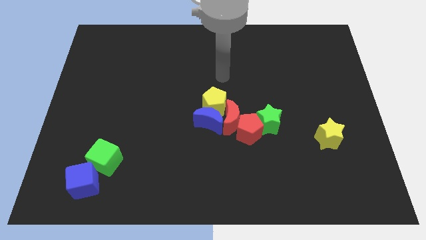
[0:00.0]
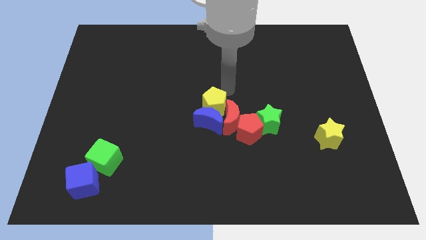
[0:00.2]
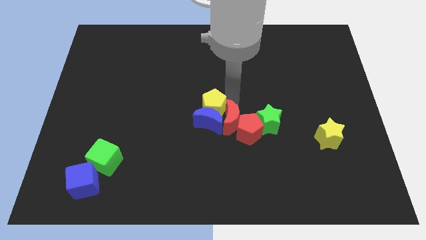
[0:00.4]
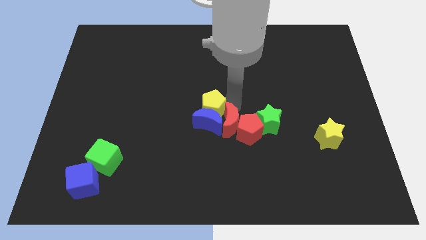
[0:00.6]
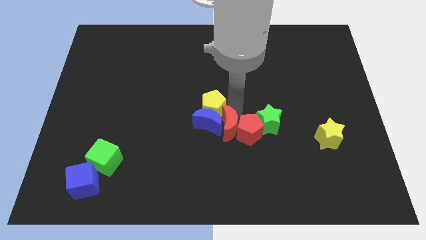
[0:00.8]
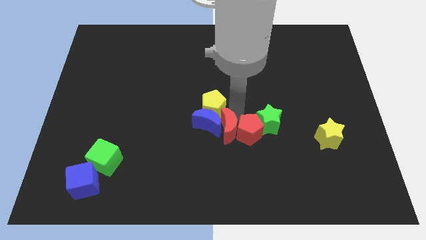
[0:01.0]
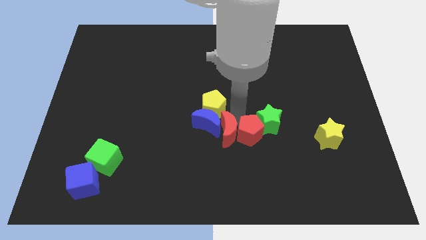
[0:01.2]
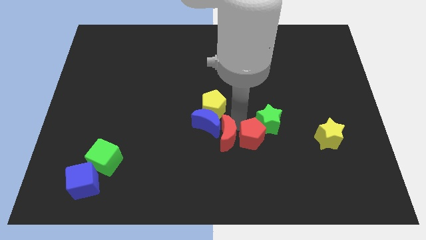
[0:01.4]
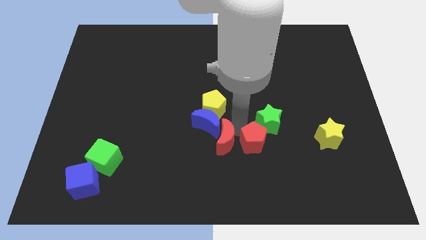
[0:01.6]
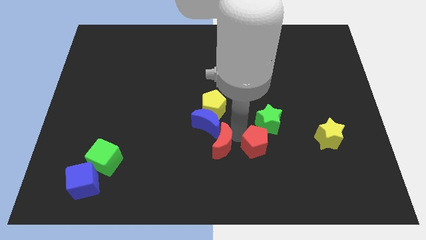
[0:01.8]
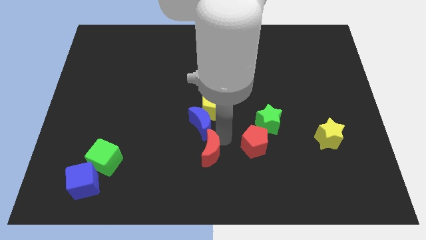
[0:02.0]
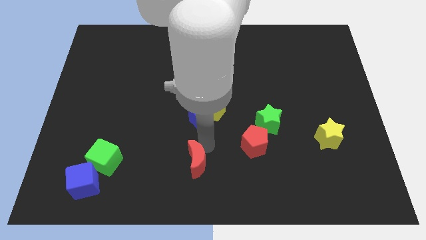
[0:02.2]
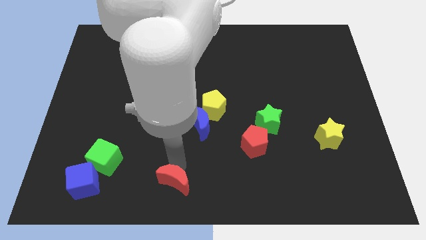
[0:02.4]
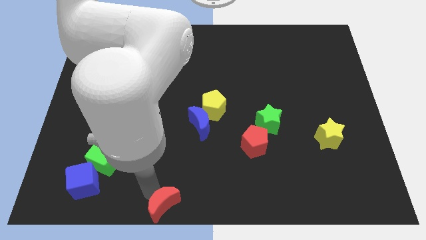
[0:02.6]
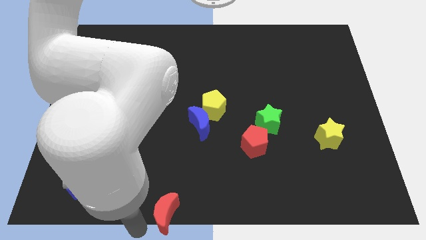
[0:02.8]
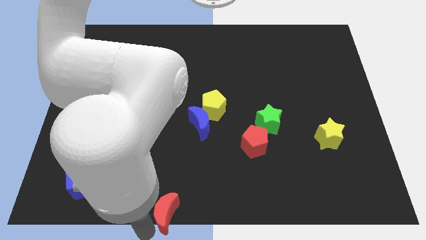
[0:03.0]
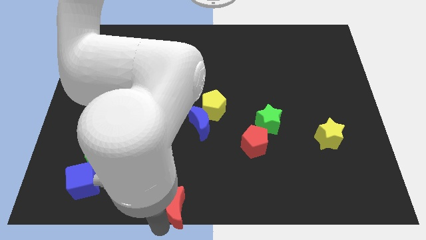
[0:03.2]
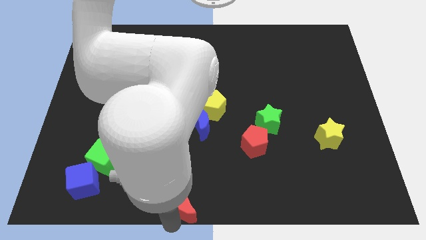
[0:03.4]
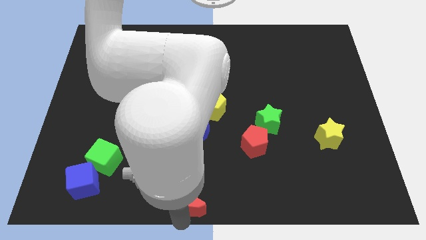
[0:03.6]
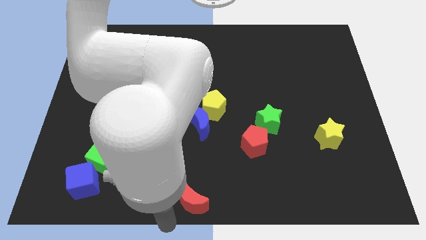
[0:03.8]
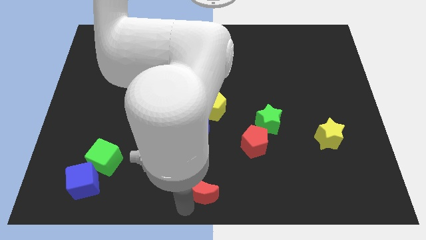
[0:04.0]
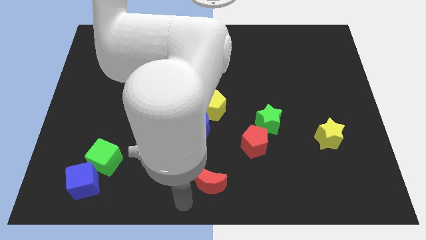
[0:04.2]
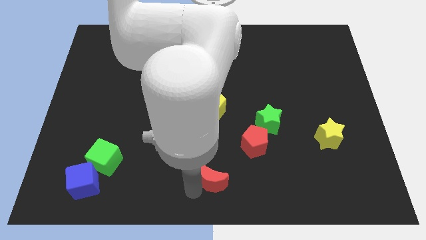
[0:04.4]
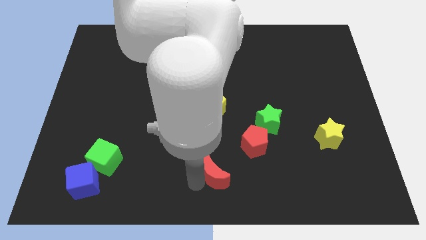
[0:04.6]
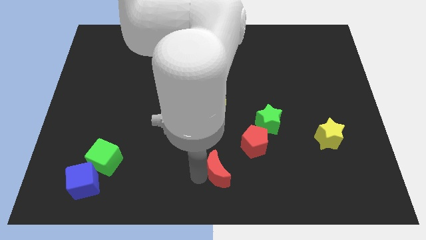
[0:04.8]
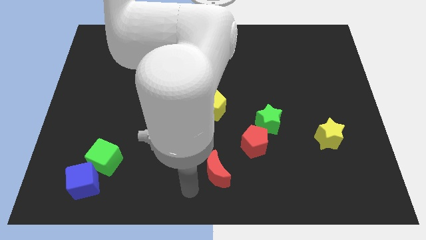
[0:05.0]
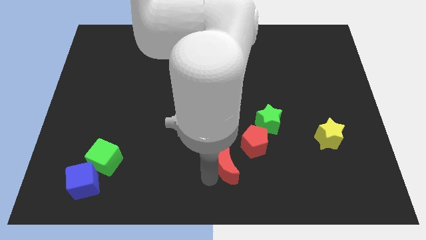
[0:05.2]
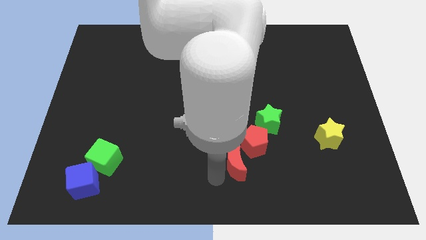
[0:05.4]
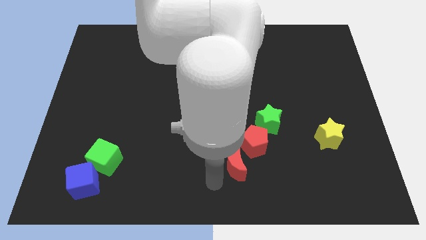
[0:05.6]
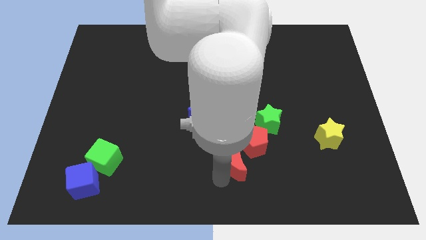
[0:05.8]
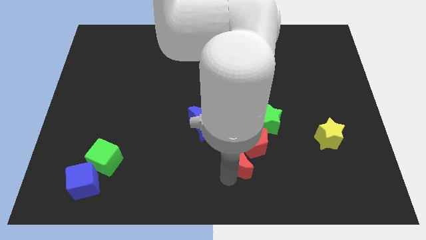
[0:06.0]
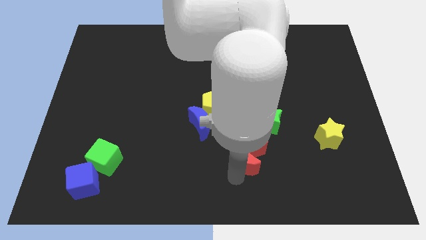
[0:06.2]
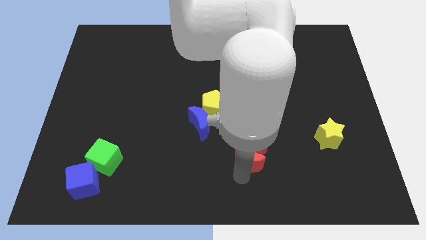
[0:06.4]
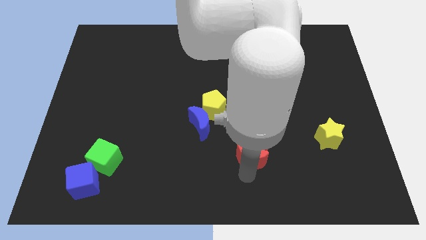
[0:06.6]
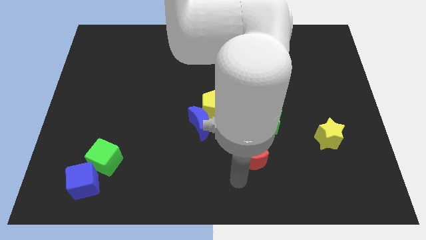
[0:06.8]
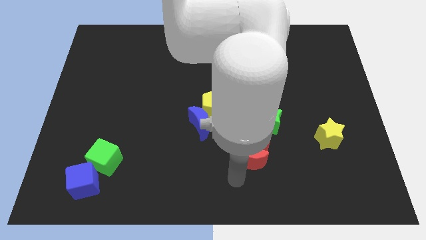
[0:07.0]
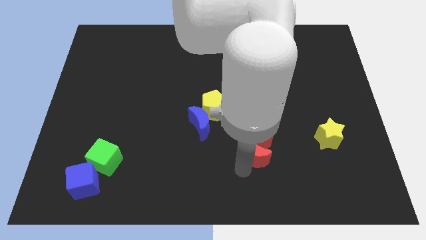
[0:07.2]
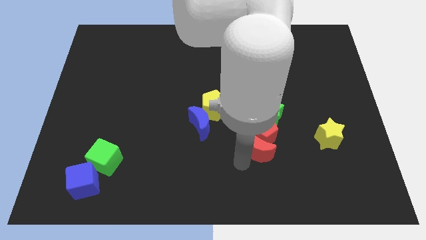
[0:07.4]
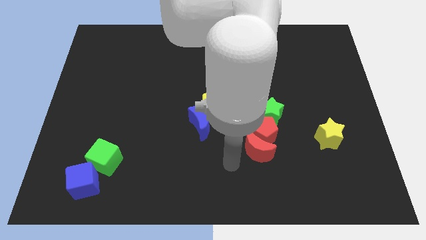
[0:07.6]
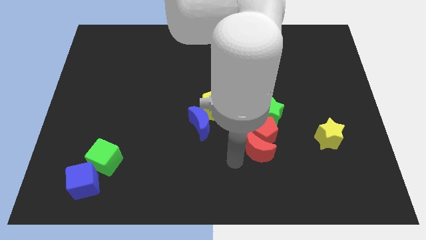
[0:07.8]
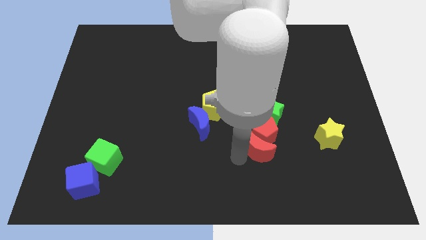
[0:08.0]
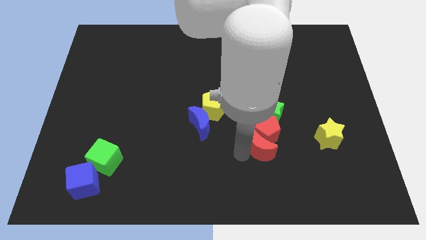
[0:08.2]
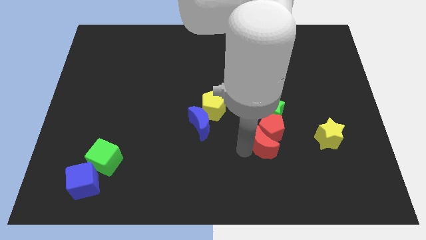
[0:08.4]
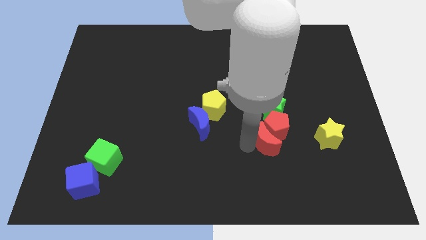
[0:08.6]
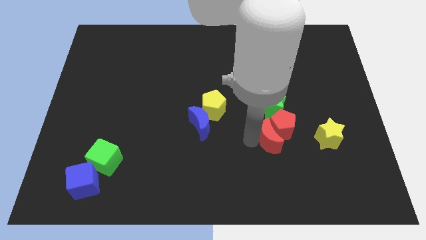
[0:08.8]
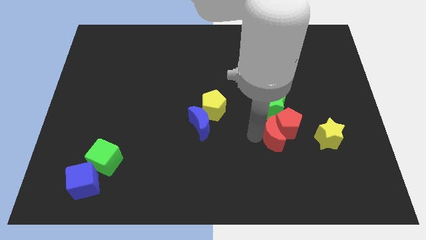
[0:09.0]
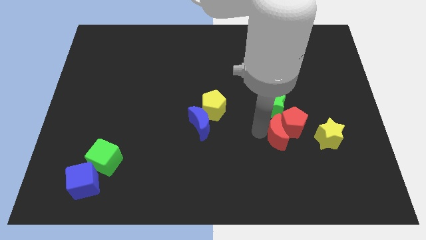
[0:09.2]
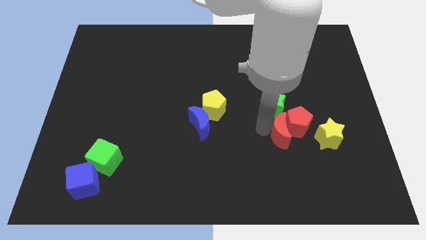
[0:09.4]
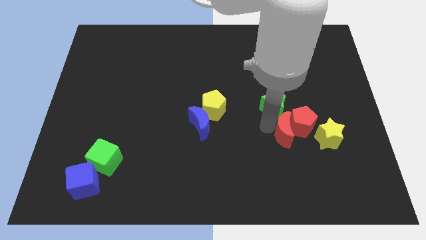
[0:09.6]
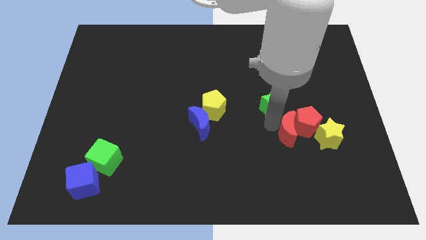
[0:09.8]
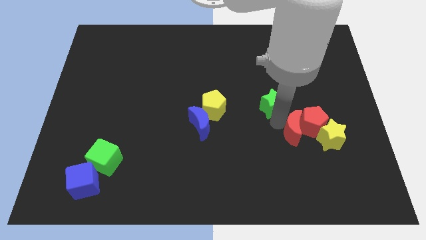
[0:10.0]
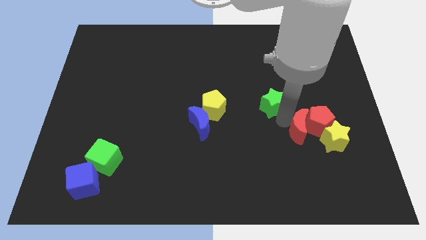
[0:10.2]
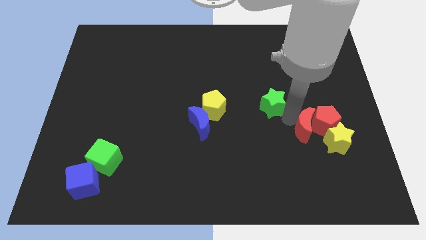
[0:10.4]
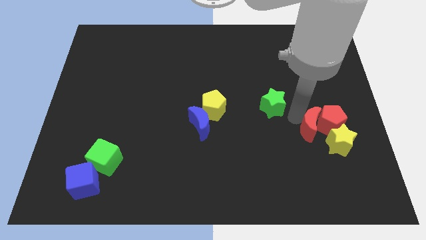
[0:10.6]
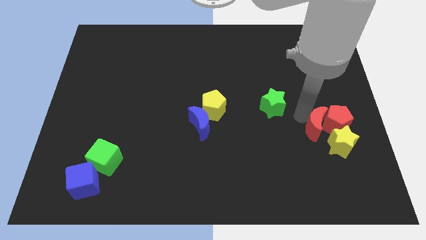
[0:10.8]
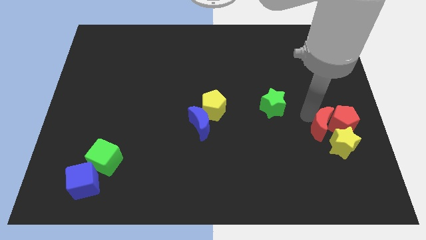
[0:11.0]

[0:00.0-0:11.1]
move the red moon towards the yellow star

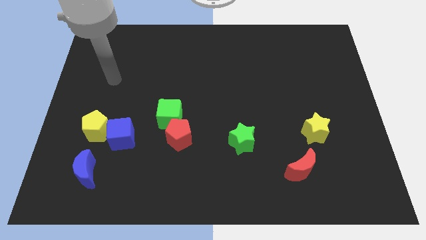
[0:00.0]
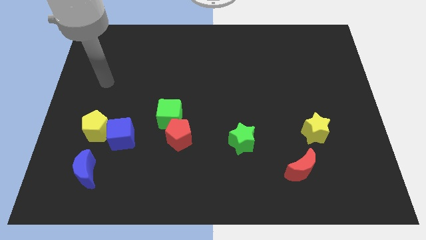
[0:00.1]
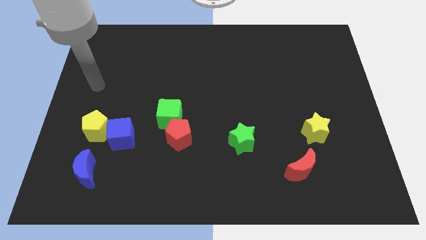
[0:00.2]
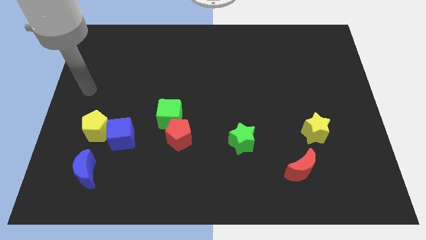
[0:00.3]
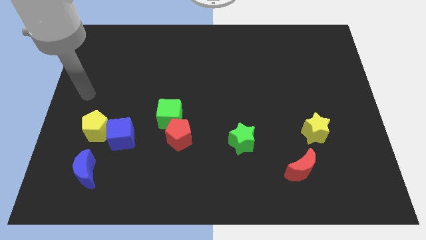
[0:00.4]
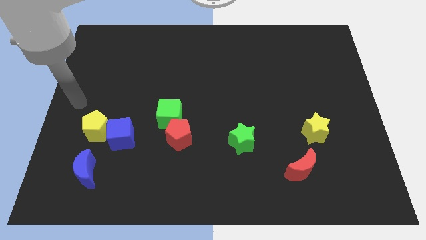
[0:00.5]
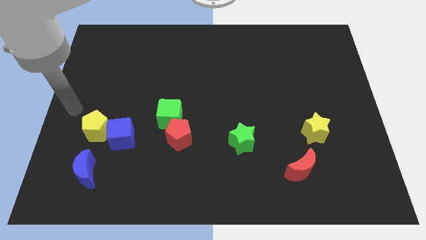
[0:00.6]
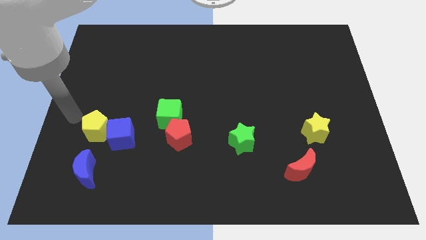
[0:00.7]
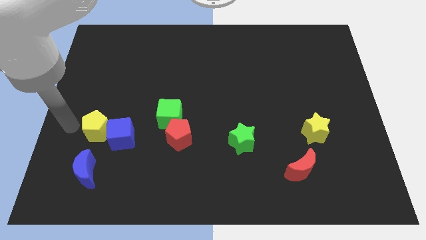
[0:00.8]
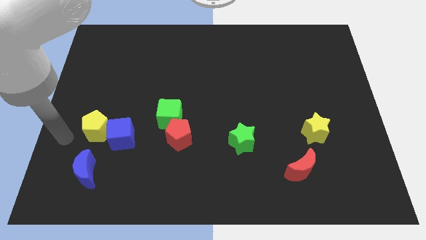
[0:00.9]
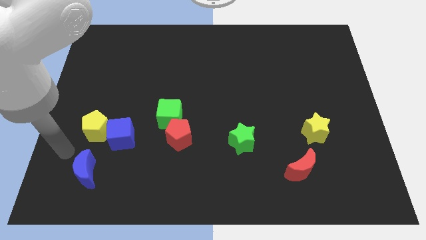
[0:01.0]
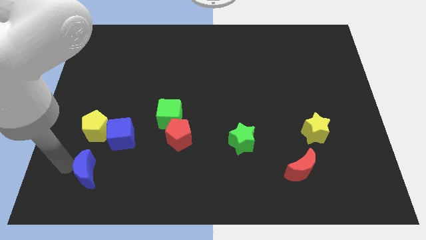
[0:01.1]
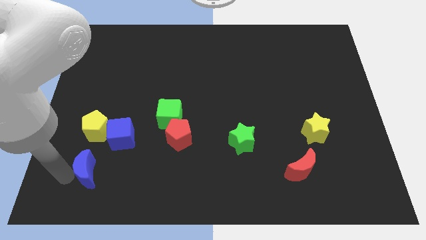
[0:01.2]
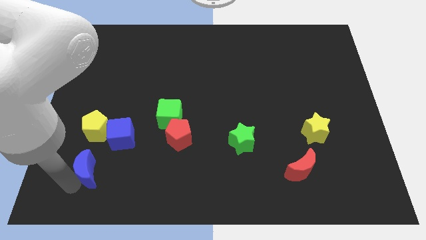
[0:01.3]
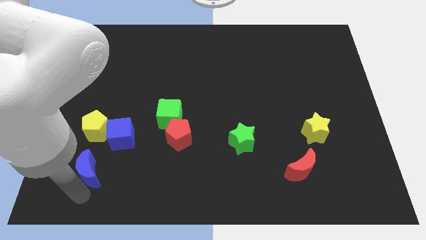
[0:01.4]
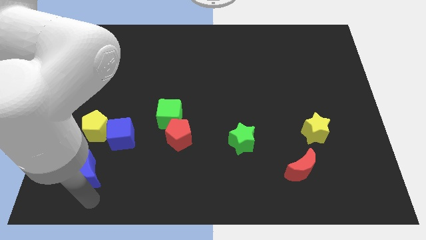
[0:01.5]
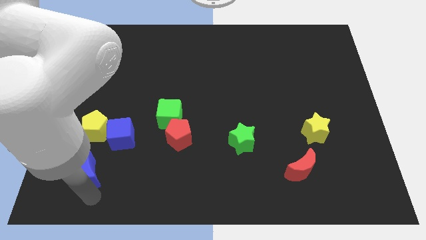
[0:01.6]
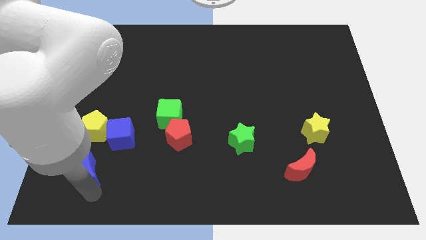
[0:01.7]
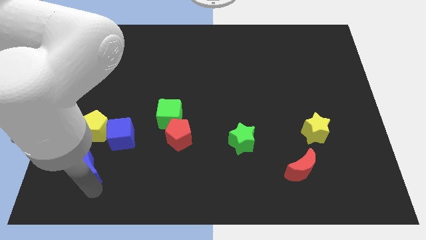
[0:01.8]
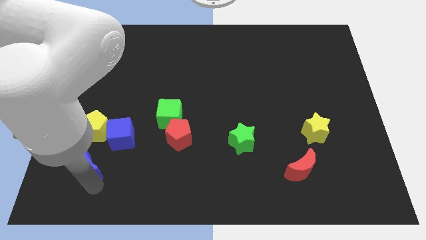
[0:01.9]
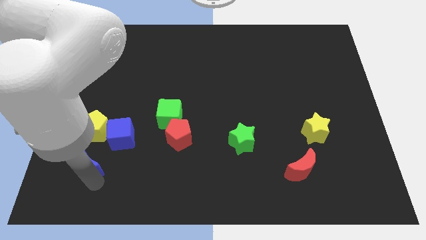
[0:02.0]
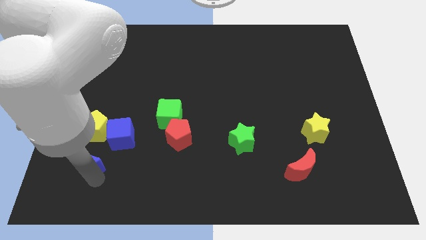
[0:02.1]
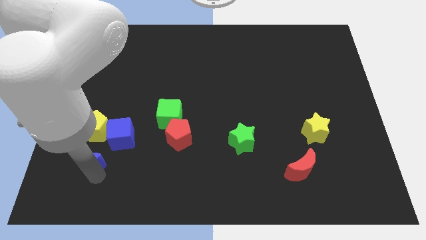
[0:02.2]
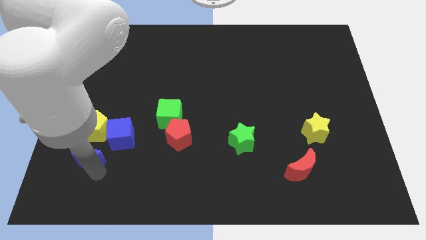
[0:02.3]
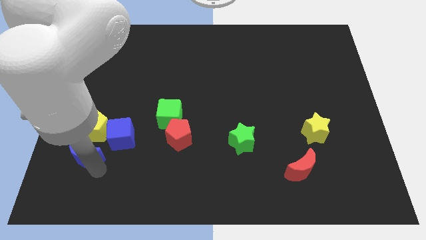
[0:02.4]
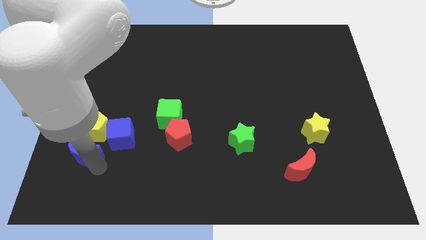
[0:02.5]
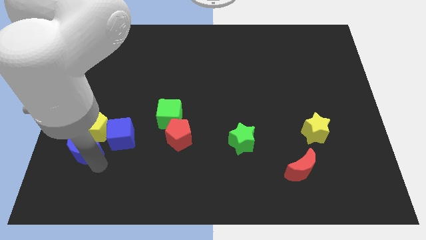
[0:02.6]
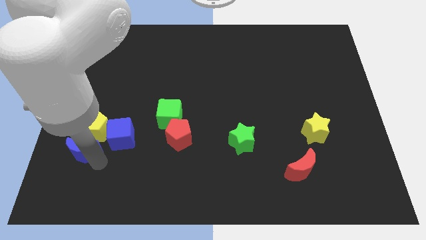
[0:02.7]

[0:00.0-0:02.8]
slide the blue moon next to the yellow pentagon
